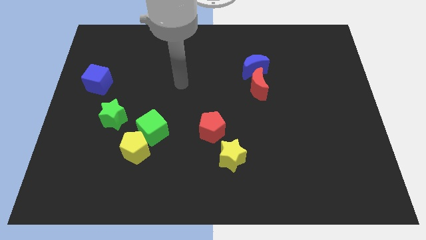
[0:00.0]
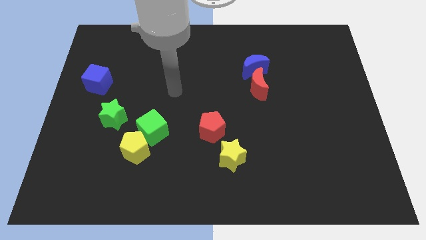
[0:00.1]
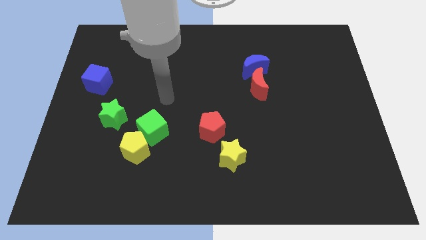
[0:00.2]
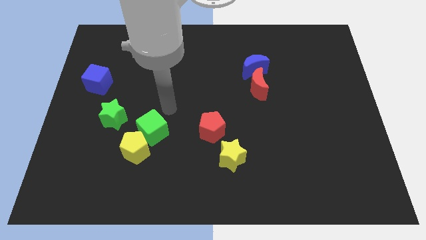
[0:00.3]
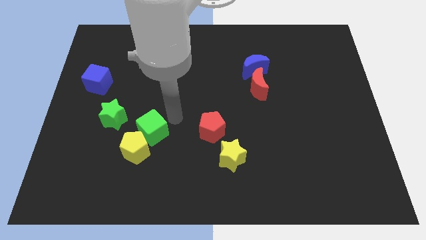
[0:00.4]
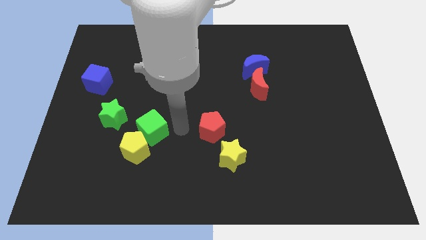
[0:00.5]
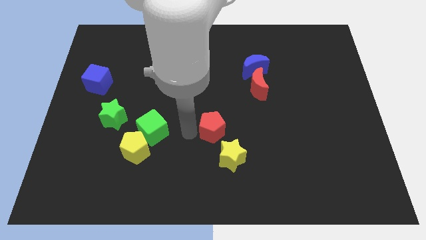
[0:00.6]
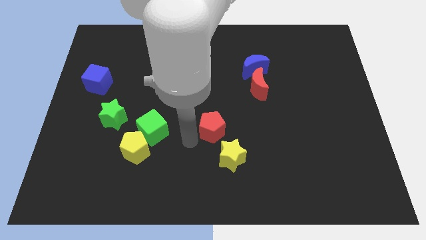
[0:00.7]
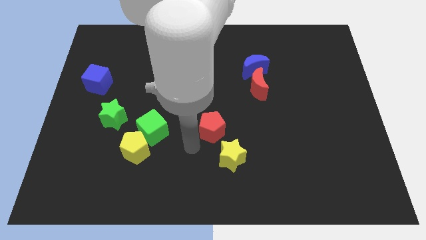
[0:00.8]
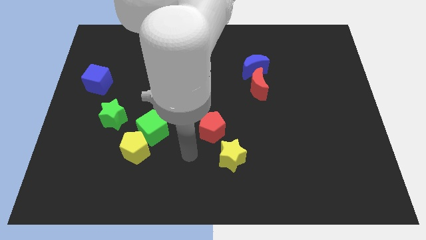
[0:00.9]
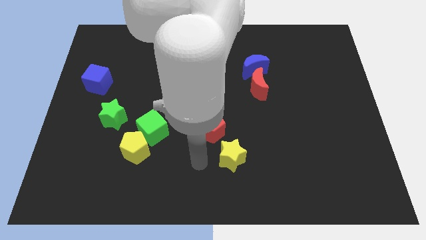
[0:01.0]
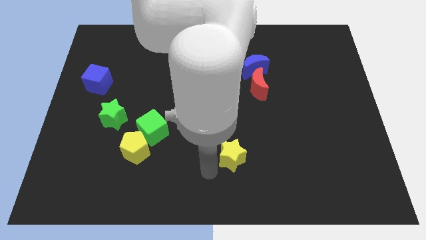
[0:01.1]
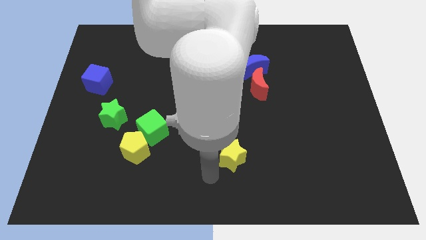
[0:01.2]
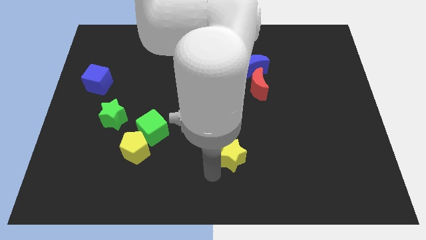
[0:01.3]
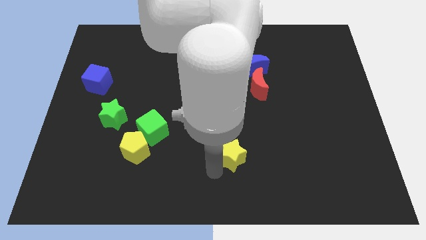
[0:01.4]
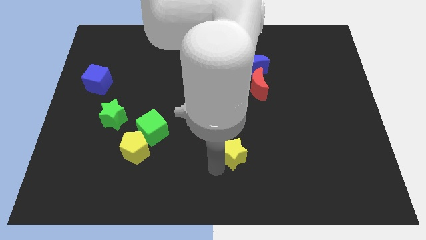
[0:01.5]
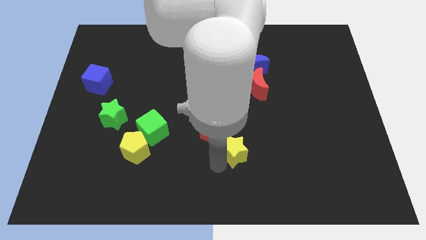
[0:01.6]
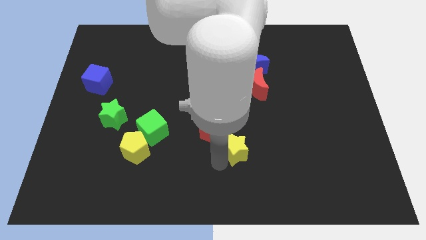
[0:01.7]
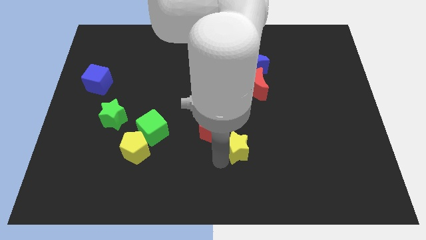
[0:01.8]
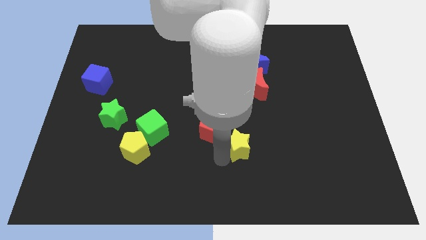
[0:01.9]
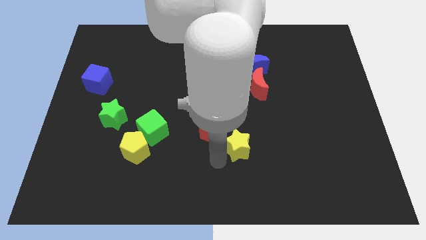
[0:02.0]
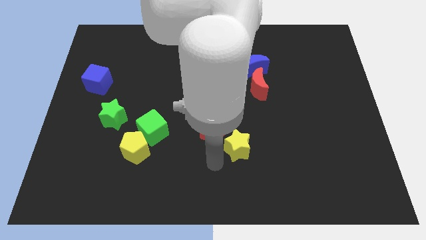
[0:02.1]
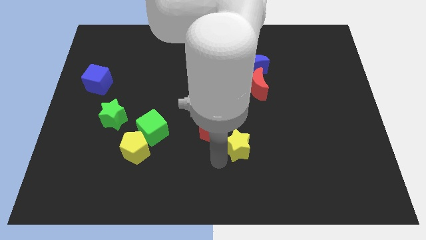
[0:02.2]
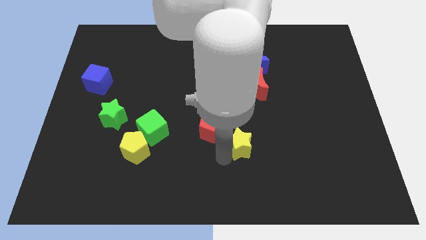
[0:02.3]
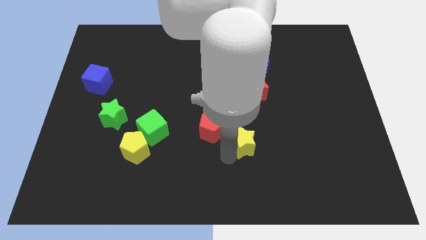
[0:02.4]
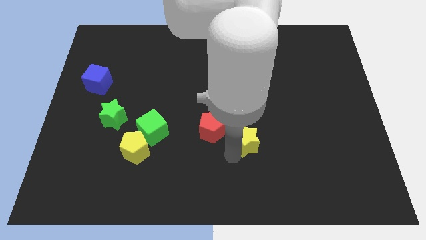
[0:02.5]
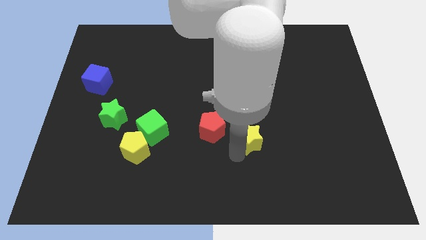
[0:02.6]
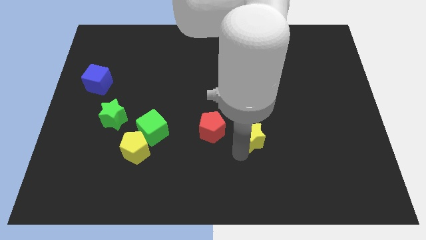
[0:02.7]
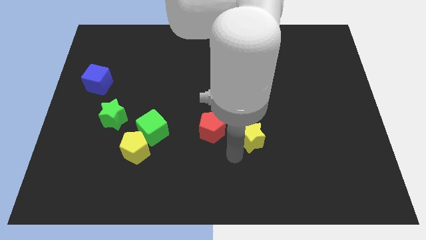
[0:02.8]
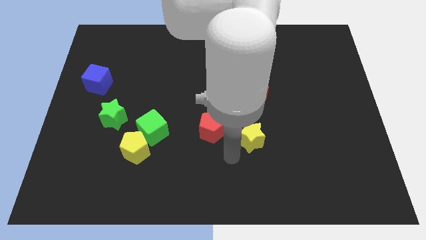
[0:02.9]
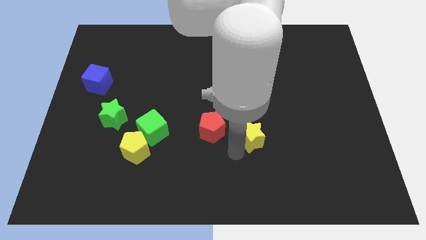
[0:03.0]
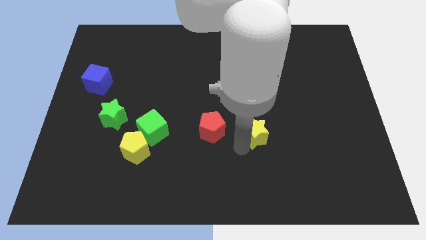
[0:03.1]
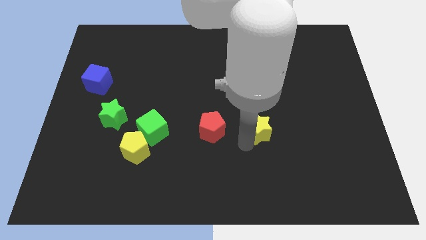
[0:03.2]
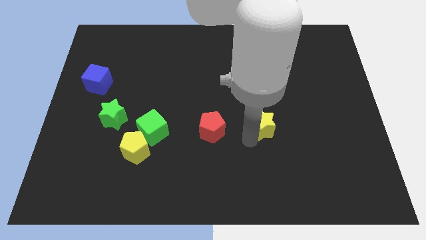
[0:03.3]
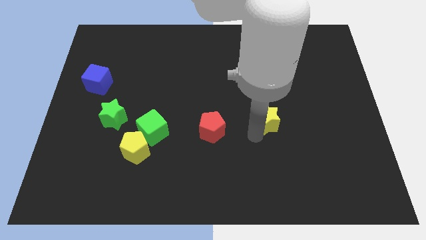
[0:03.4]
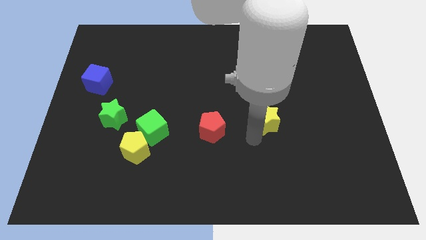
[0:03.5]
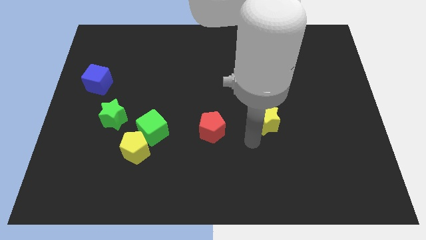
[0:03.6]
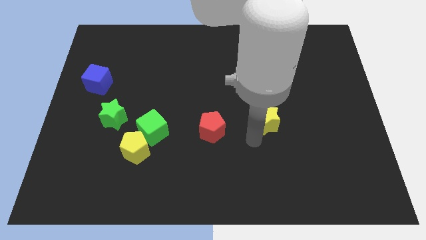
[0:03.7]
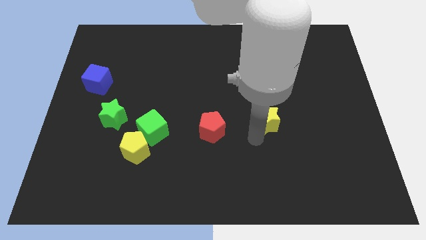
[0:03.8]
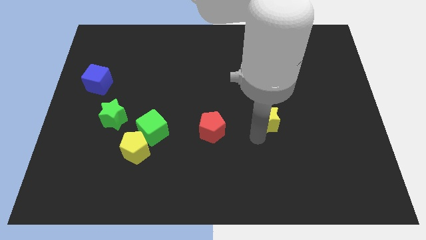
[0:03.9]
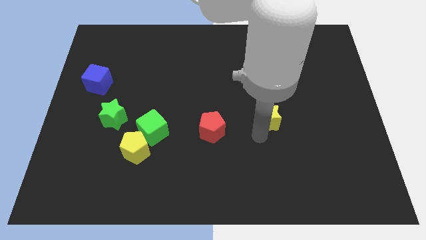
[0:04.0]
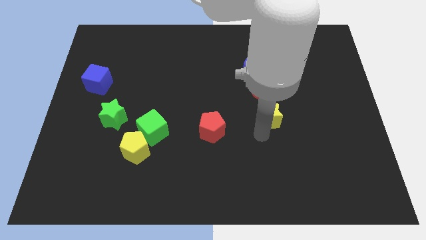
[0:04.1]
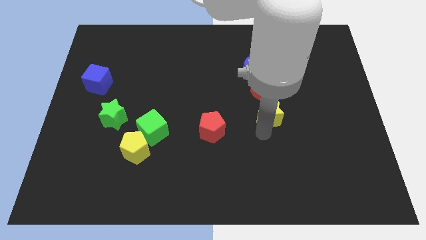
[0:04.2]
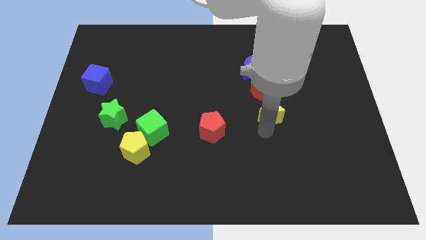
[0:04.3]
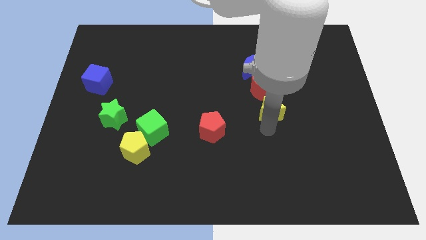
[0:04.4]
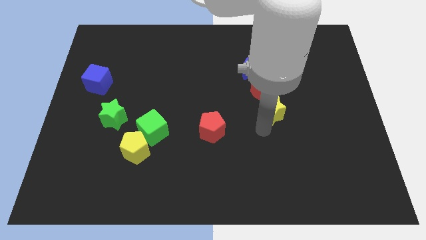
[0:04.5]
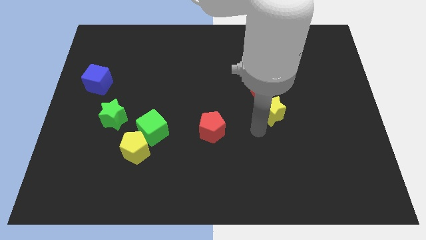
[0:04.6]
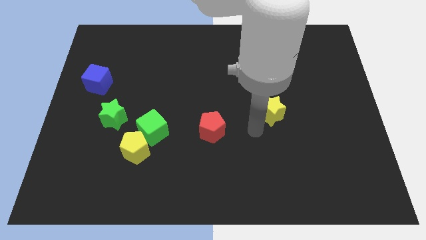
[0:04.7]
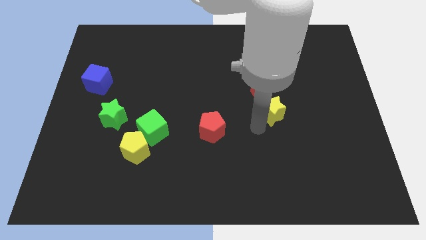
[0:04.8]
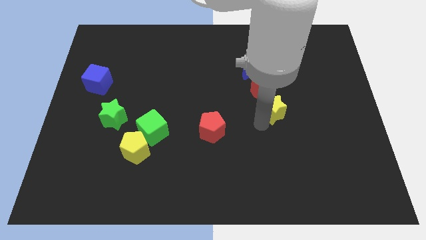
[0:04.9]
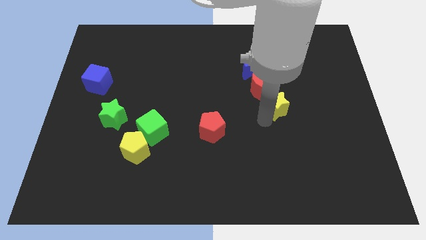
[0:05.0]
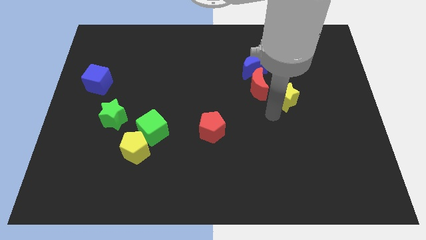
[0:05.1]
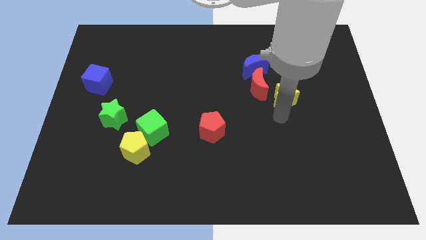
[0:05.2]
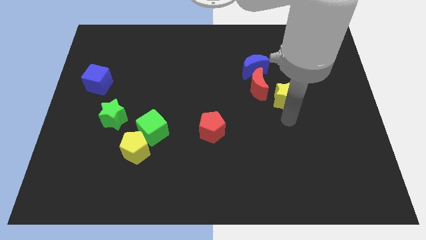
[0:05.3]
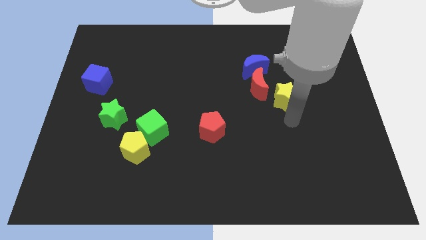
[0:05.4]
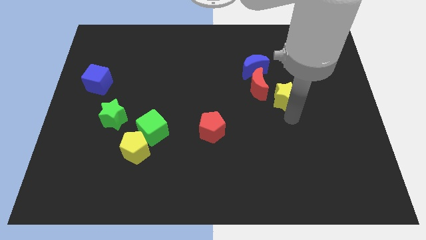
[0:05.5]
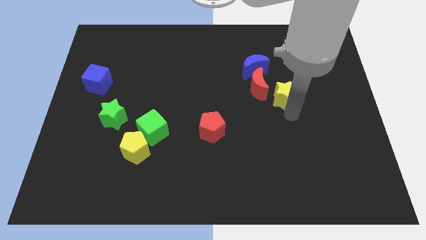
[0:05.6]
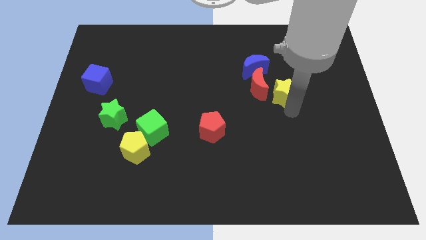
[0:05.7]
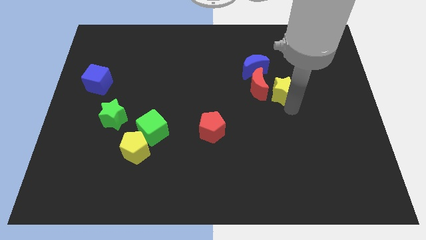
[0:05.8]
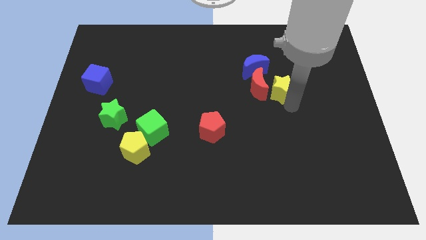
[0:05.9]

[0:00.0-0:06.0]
slide the yellow star diagonally up and to the right of the red moon

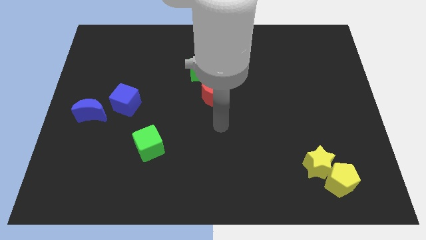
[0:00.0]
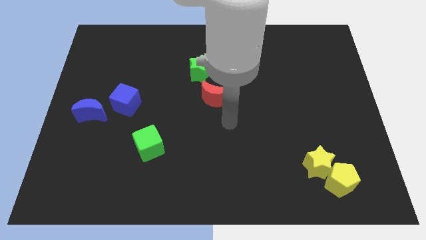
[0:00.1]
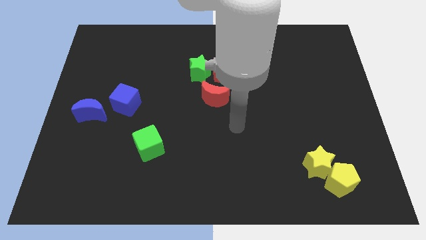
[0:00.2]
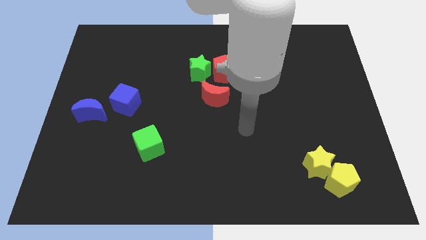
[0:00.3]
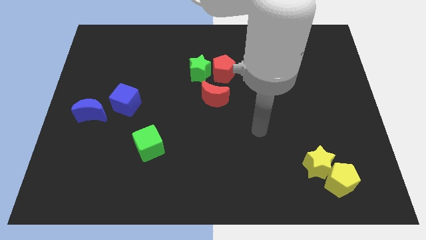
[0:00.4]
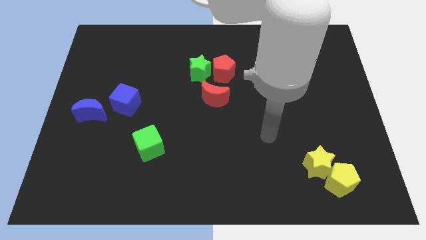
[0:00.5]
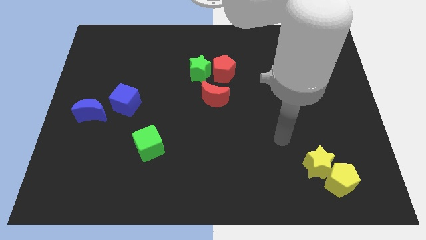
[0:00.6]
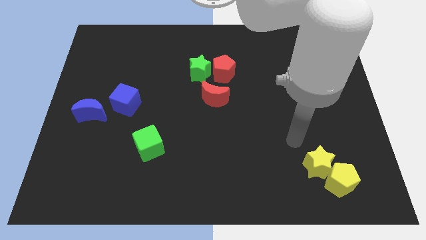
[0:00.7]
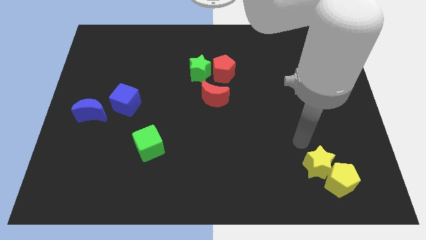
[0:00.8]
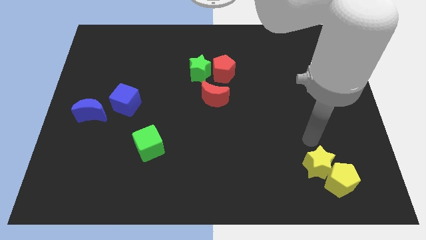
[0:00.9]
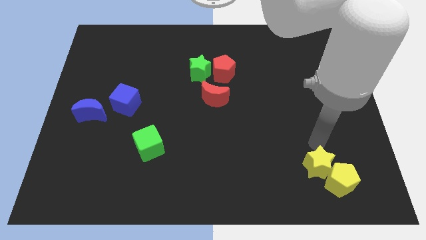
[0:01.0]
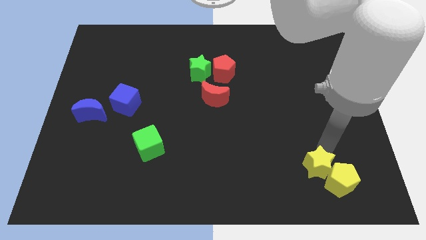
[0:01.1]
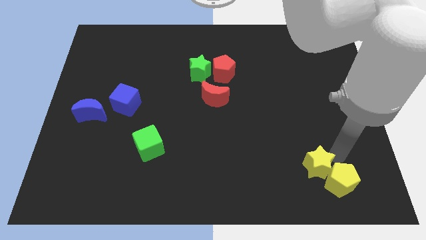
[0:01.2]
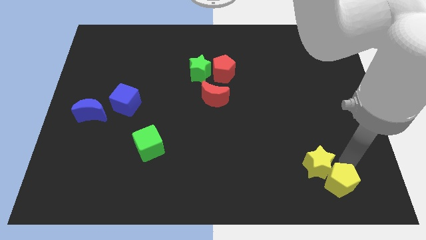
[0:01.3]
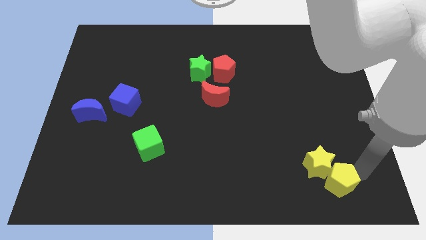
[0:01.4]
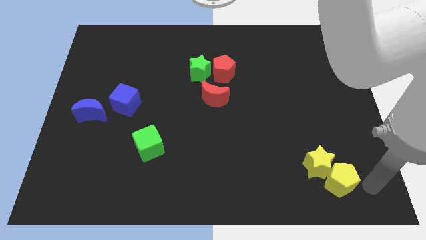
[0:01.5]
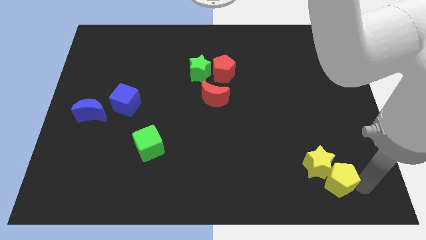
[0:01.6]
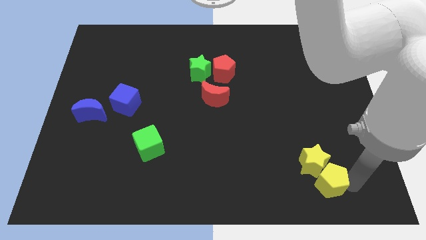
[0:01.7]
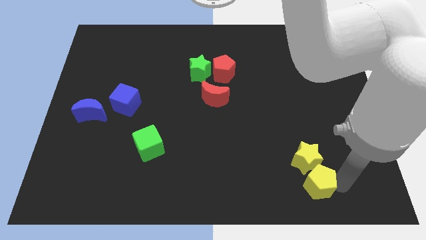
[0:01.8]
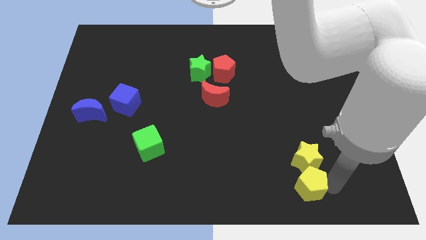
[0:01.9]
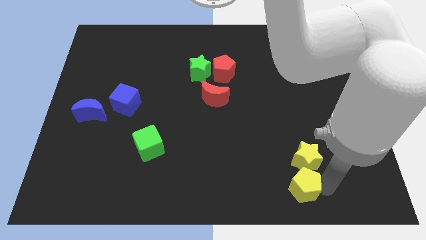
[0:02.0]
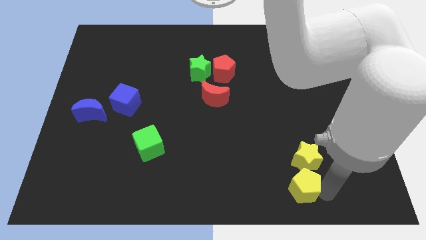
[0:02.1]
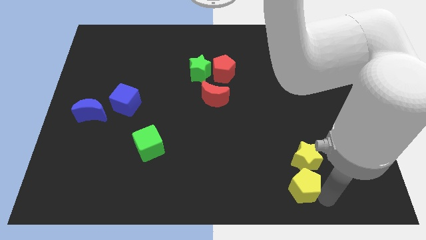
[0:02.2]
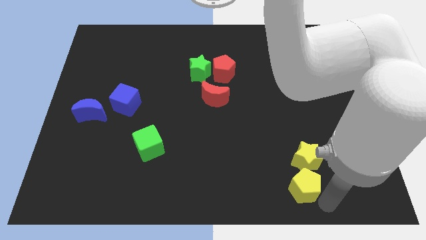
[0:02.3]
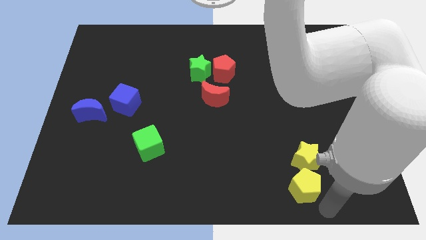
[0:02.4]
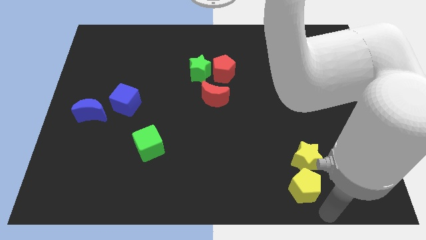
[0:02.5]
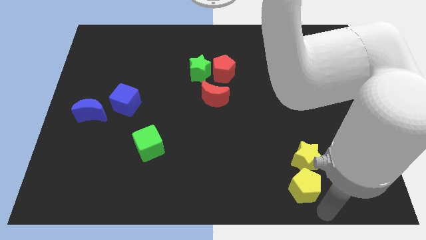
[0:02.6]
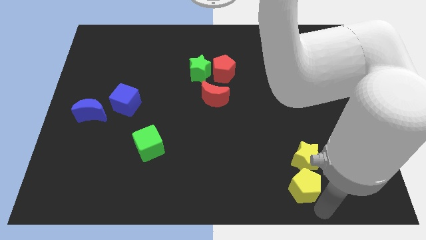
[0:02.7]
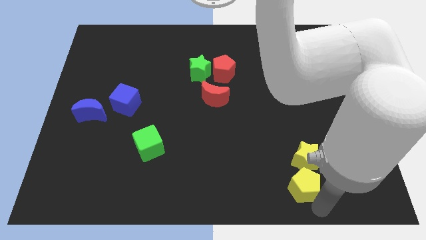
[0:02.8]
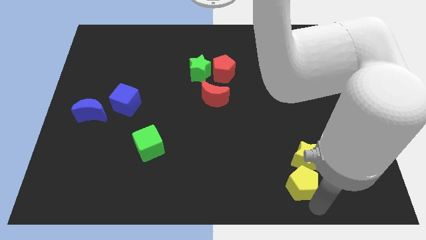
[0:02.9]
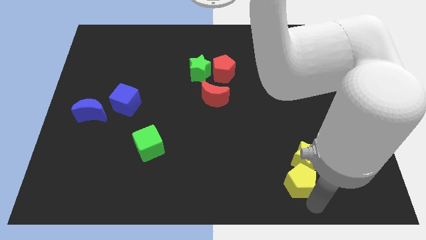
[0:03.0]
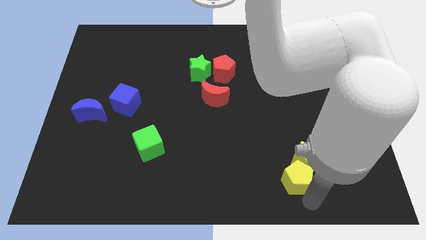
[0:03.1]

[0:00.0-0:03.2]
move the yellow pentagon left of the yellow star
